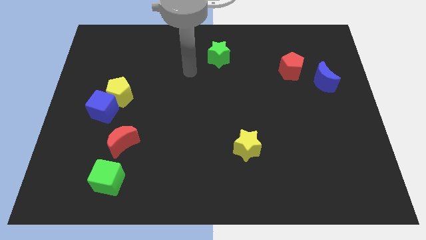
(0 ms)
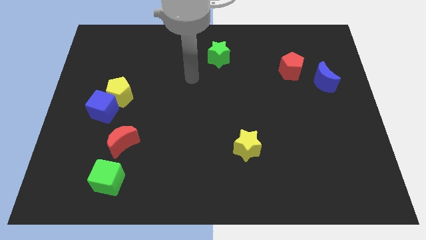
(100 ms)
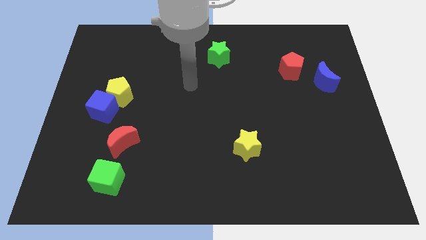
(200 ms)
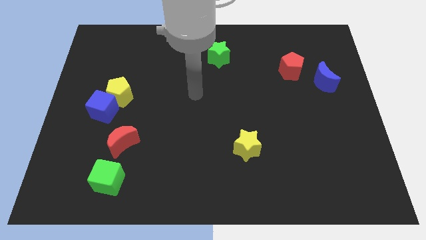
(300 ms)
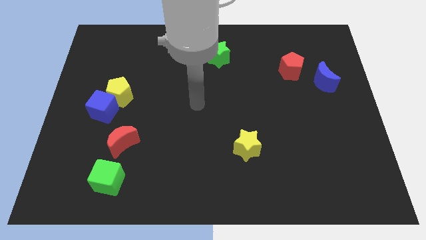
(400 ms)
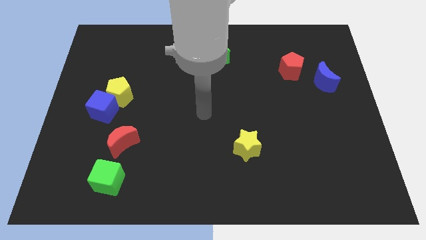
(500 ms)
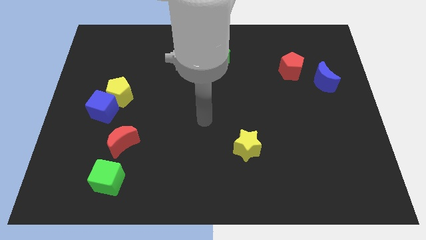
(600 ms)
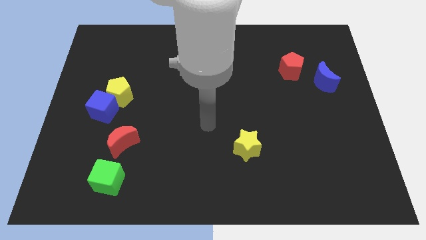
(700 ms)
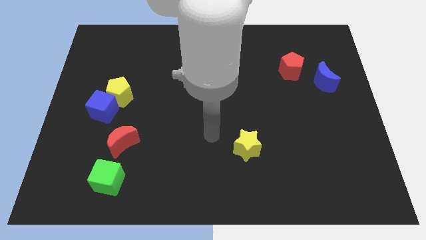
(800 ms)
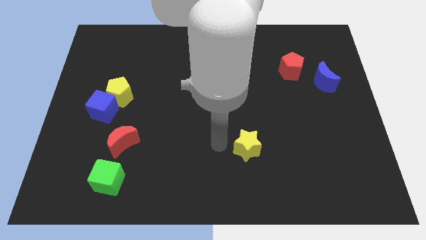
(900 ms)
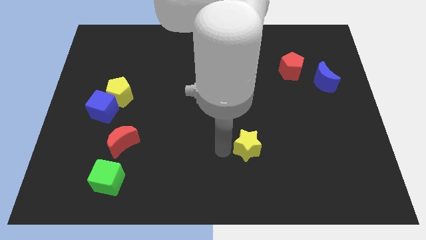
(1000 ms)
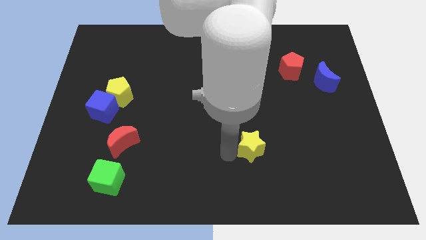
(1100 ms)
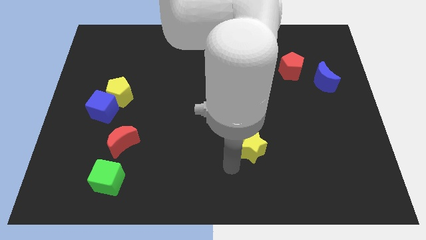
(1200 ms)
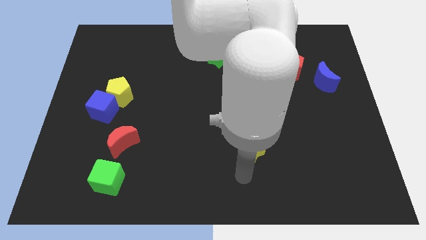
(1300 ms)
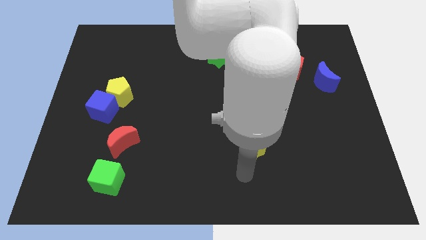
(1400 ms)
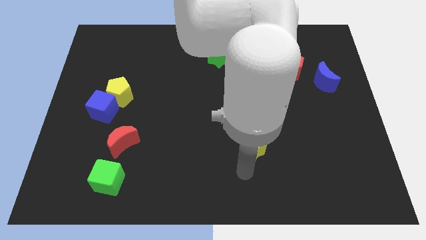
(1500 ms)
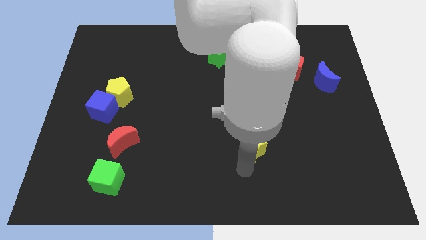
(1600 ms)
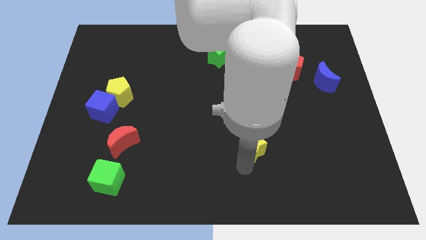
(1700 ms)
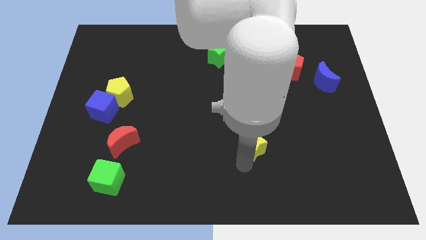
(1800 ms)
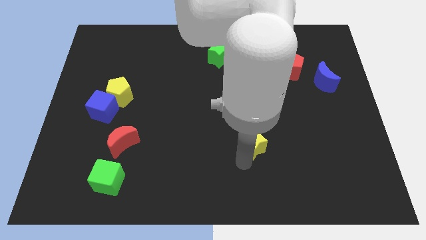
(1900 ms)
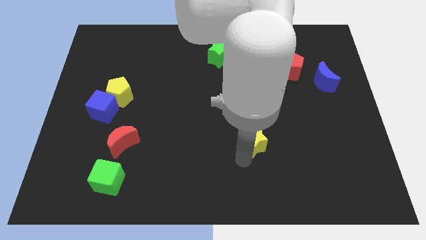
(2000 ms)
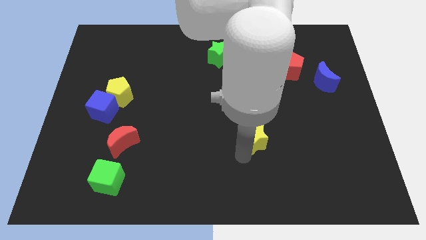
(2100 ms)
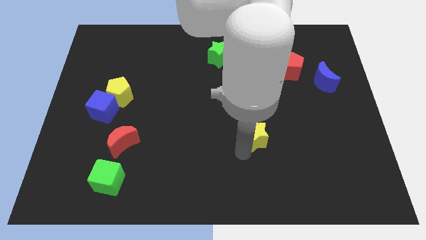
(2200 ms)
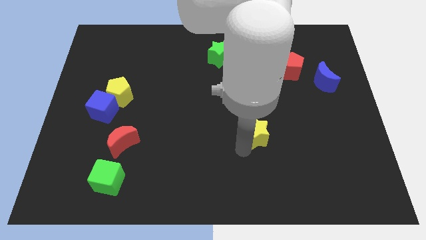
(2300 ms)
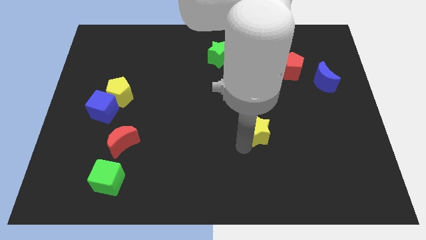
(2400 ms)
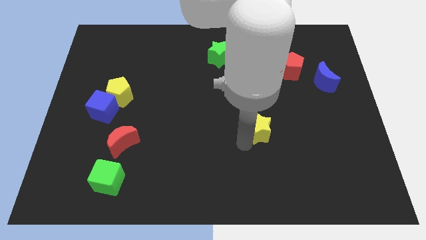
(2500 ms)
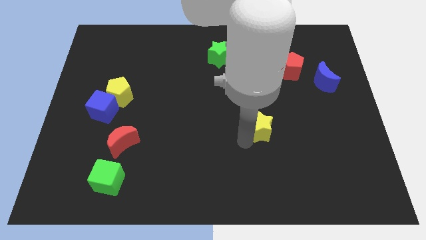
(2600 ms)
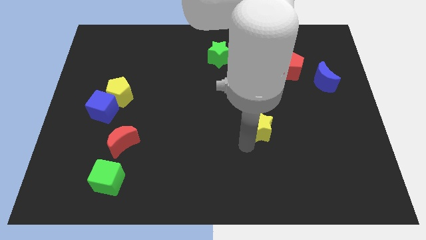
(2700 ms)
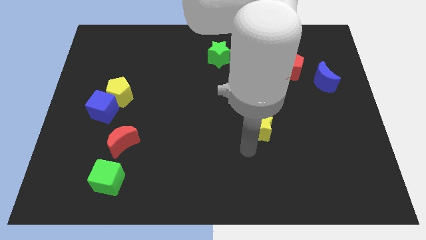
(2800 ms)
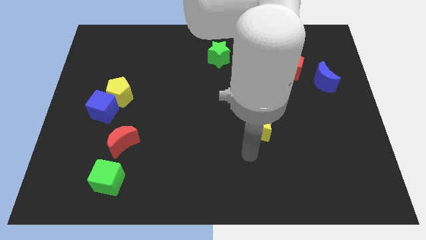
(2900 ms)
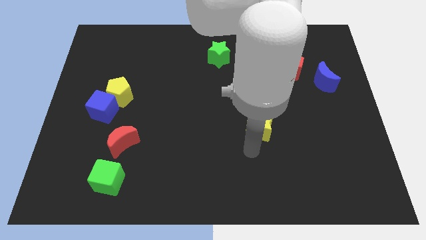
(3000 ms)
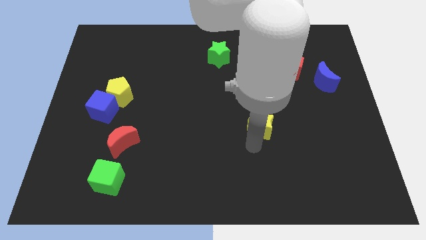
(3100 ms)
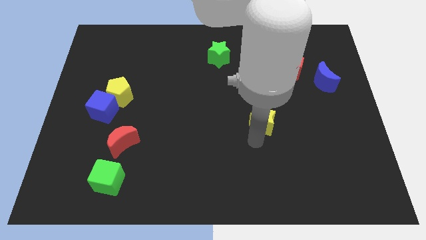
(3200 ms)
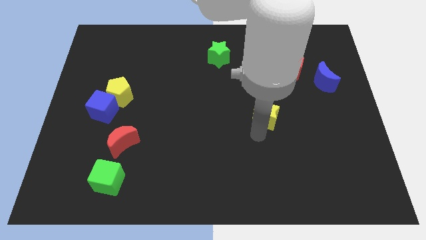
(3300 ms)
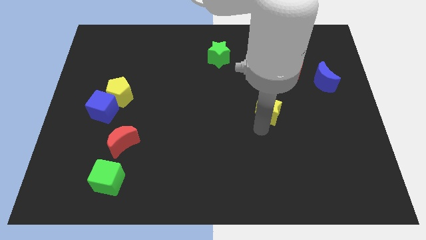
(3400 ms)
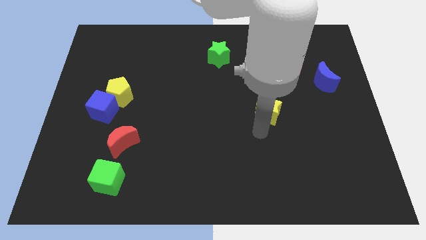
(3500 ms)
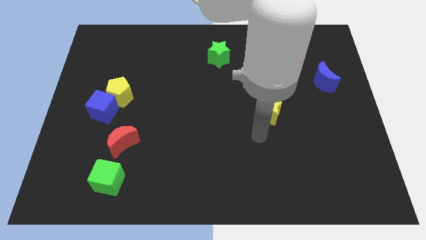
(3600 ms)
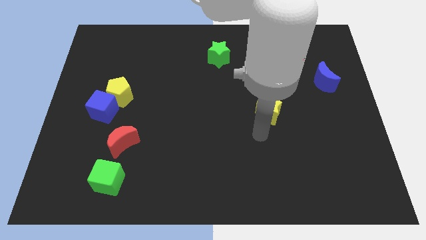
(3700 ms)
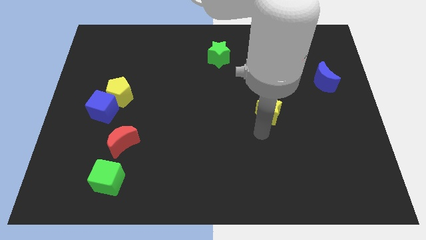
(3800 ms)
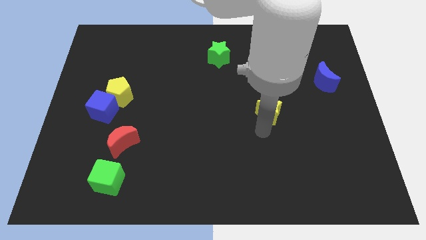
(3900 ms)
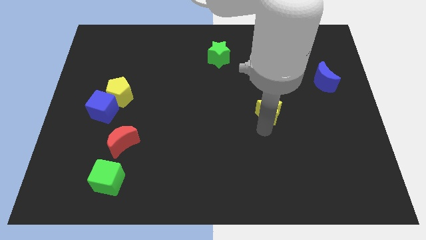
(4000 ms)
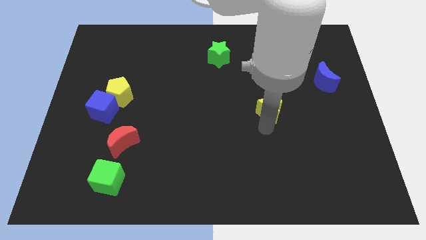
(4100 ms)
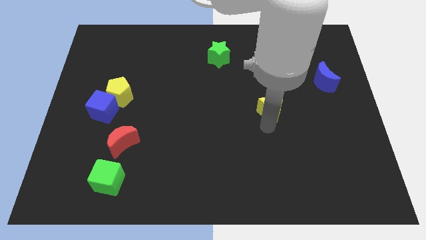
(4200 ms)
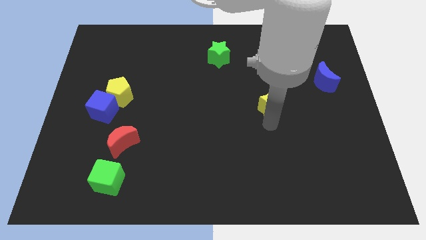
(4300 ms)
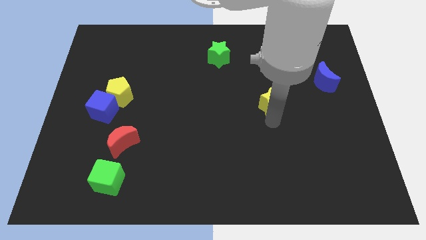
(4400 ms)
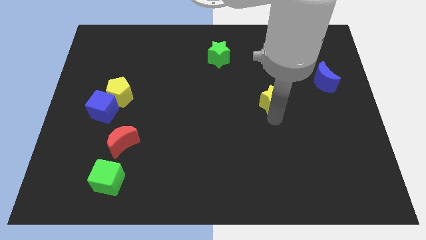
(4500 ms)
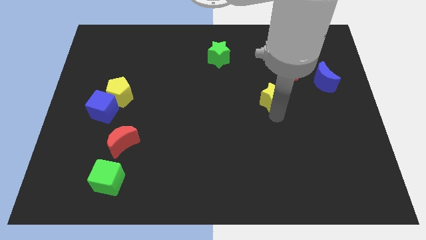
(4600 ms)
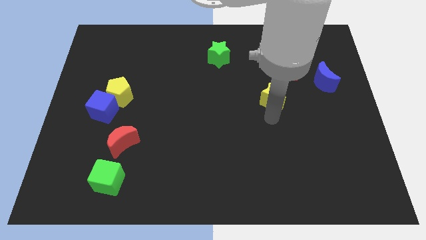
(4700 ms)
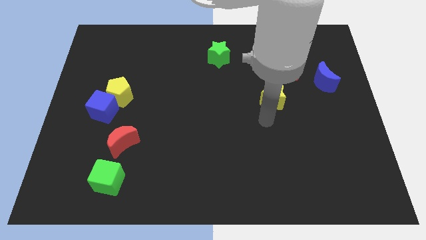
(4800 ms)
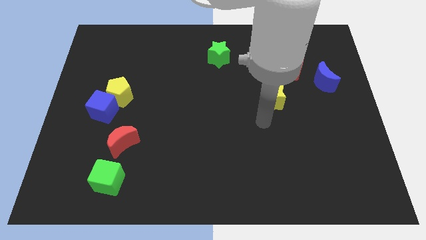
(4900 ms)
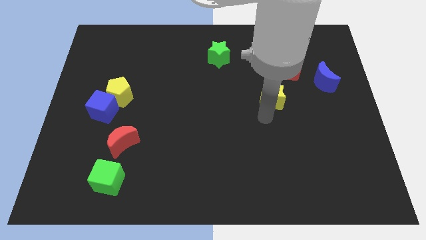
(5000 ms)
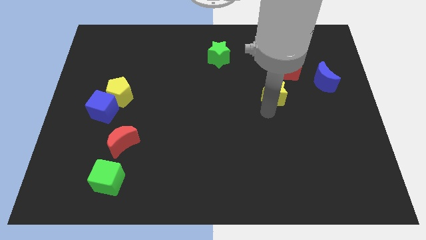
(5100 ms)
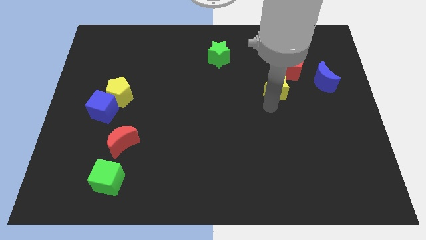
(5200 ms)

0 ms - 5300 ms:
put the yellow star to the left of the blue moon

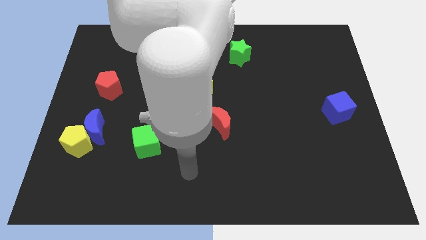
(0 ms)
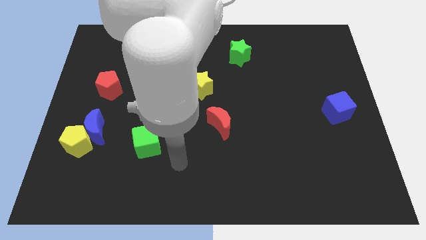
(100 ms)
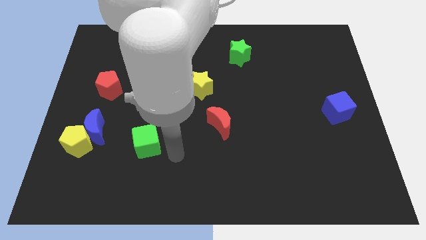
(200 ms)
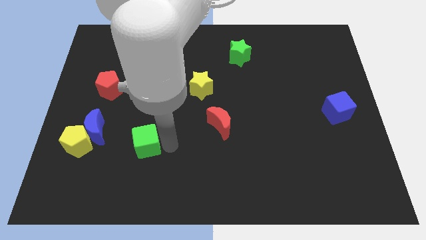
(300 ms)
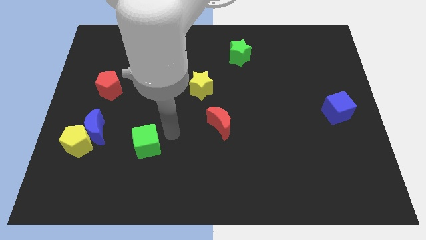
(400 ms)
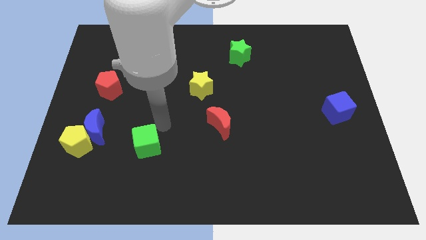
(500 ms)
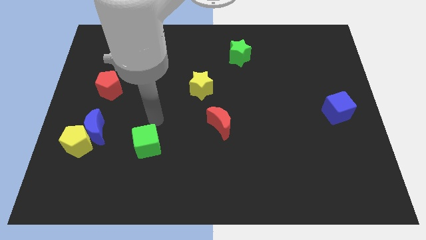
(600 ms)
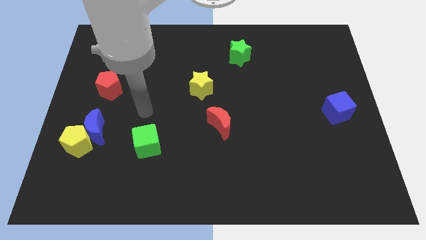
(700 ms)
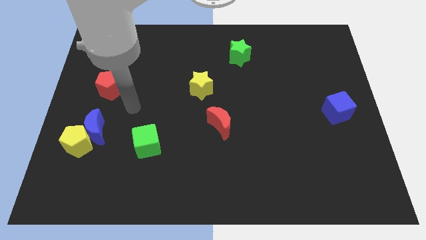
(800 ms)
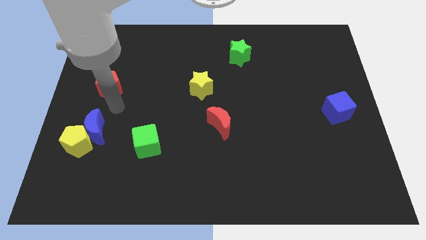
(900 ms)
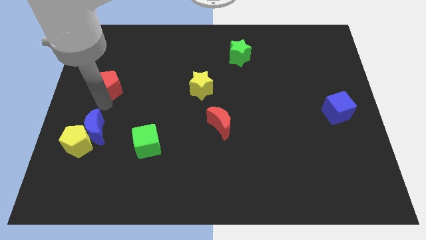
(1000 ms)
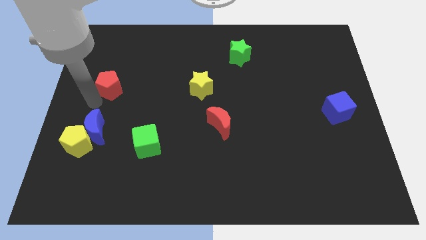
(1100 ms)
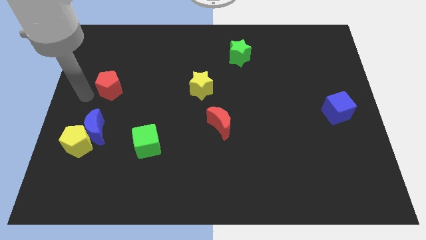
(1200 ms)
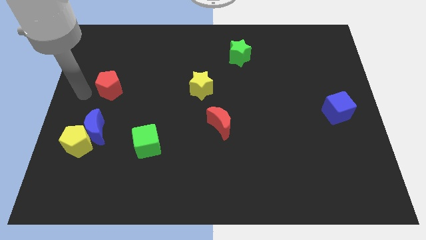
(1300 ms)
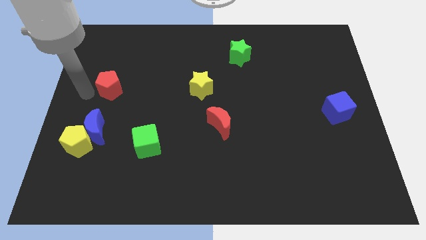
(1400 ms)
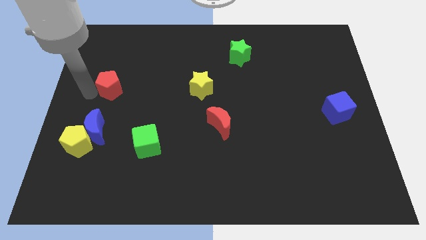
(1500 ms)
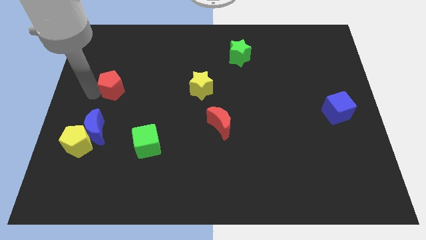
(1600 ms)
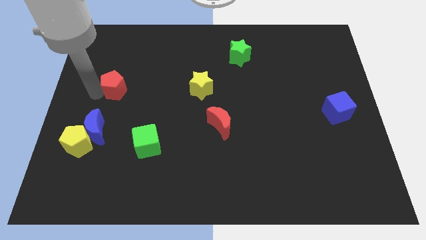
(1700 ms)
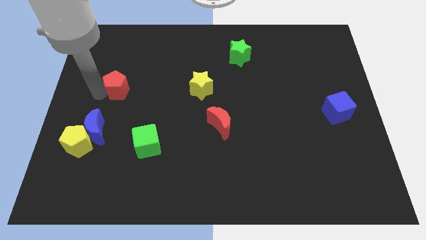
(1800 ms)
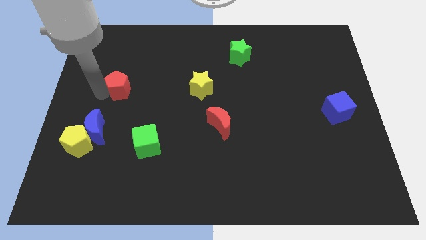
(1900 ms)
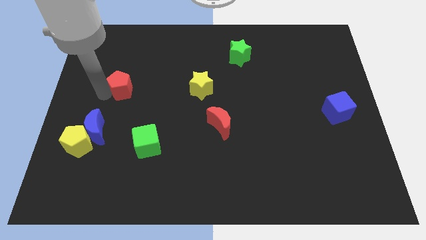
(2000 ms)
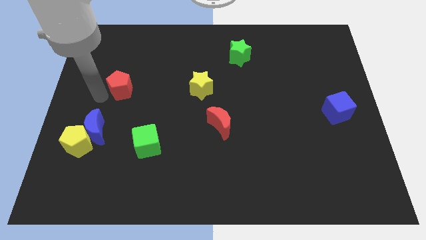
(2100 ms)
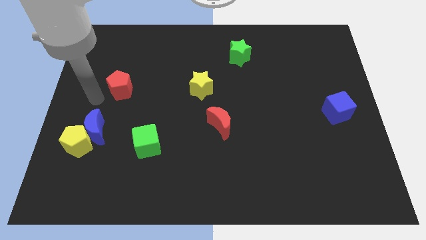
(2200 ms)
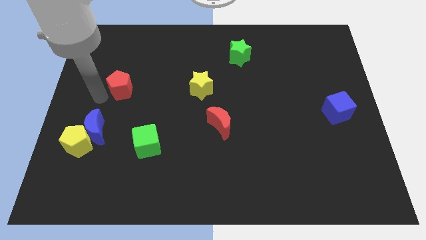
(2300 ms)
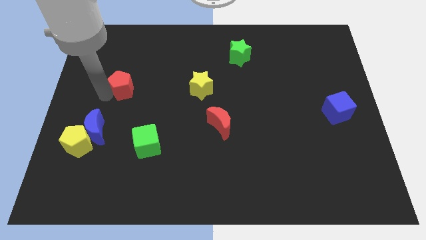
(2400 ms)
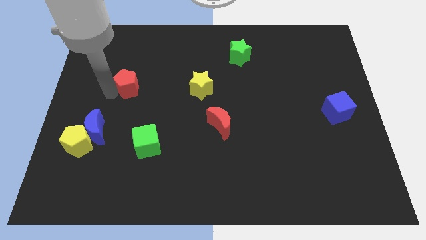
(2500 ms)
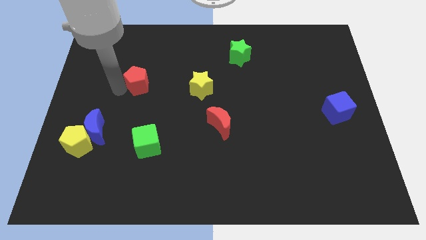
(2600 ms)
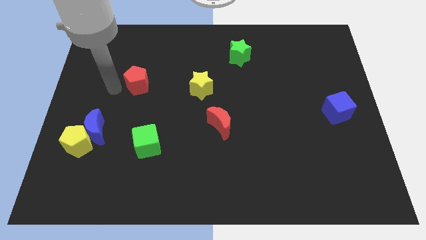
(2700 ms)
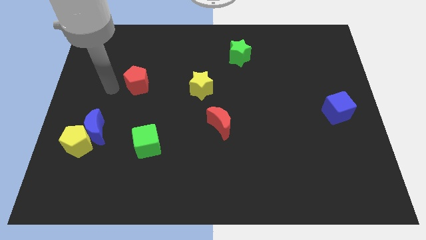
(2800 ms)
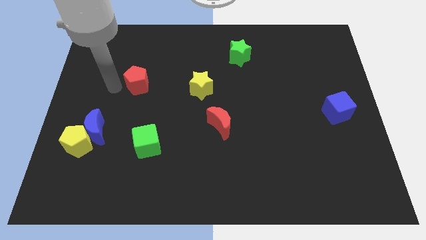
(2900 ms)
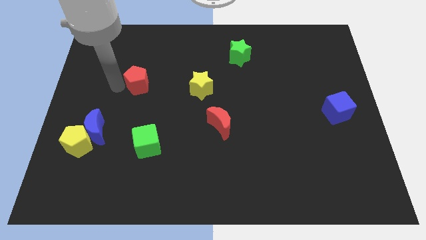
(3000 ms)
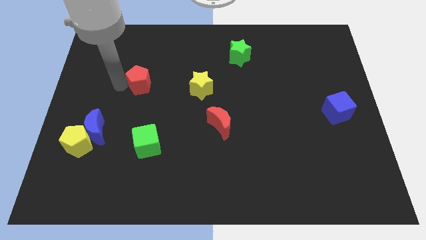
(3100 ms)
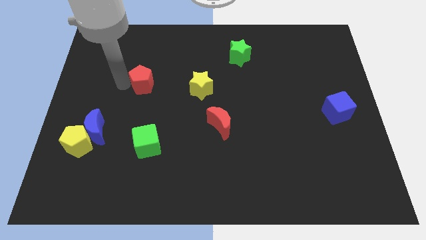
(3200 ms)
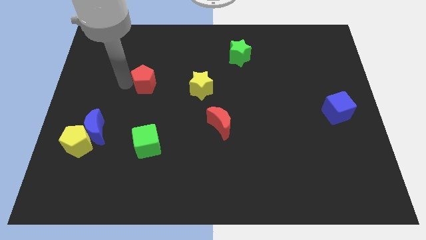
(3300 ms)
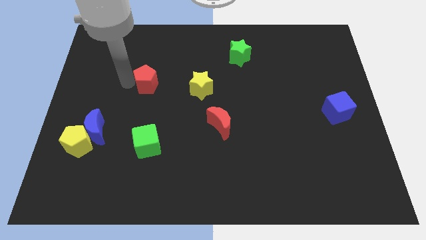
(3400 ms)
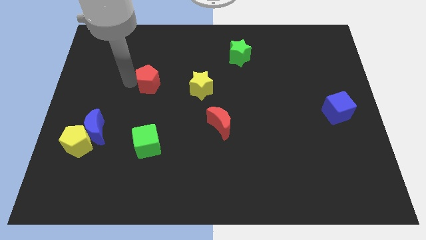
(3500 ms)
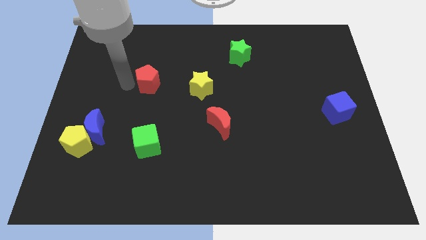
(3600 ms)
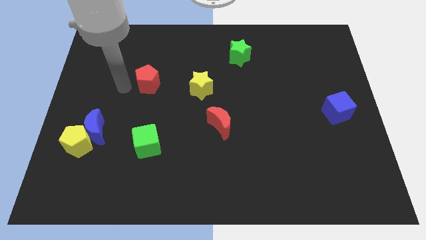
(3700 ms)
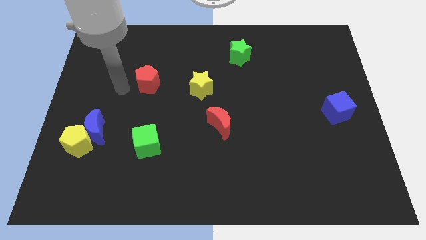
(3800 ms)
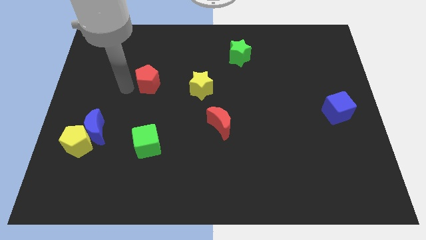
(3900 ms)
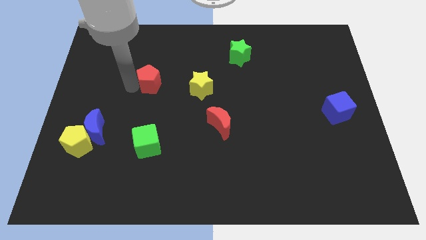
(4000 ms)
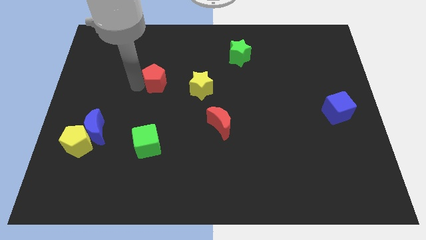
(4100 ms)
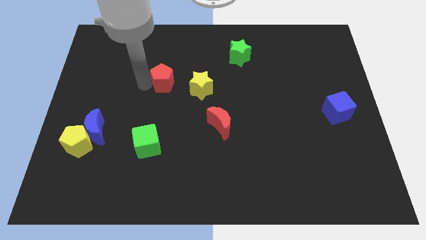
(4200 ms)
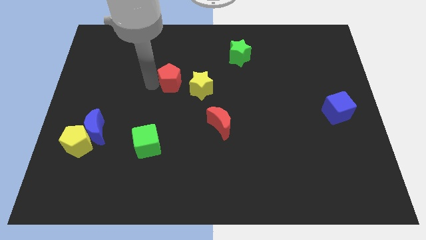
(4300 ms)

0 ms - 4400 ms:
move the red pentagon to the top left side of the yellow star
